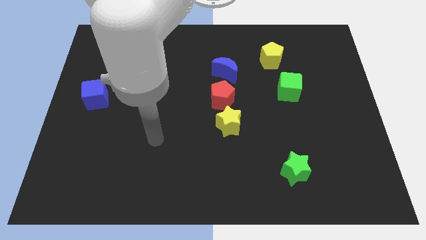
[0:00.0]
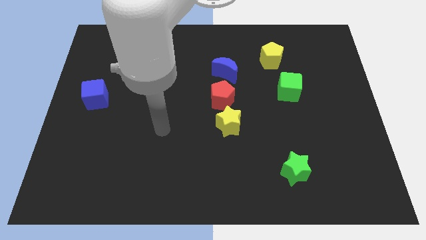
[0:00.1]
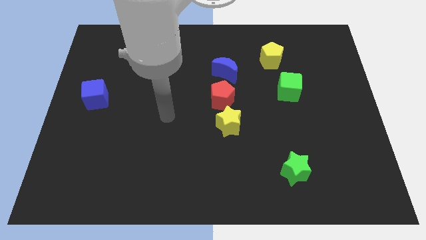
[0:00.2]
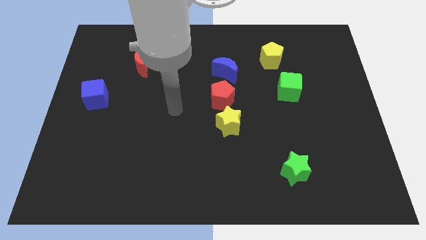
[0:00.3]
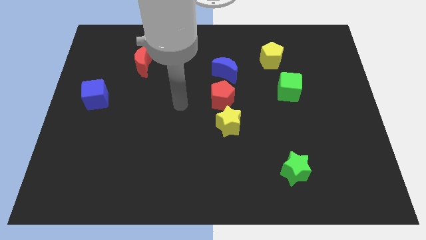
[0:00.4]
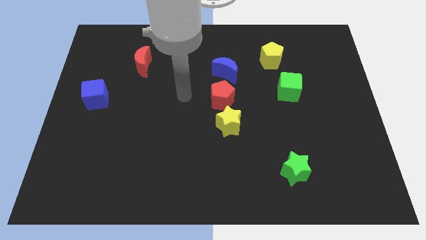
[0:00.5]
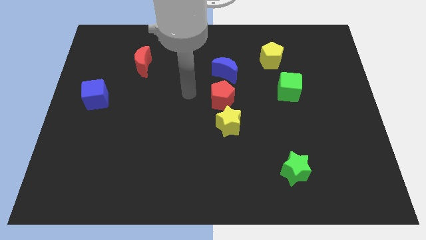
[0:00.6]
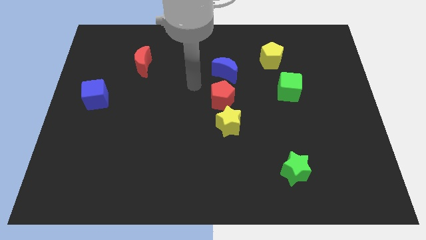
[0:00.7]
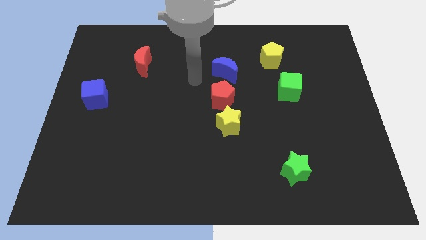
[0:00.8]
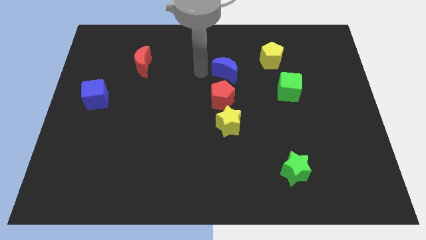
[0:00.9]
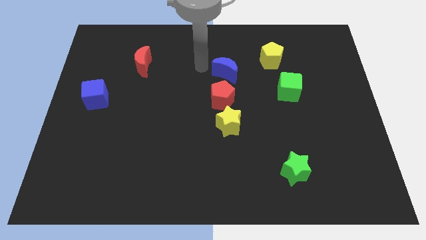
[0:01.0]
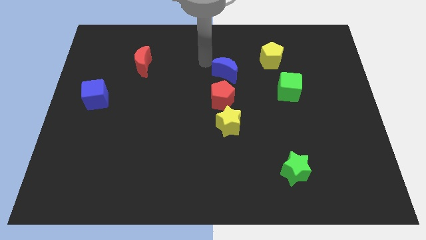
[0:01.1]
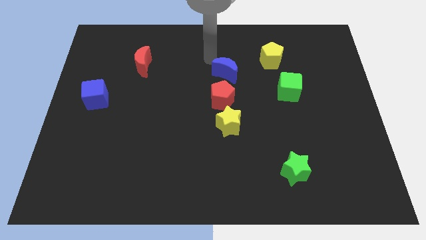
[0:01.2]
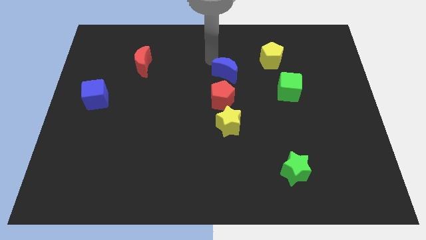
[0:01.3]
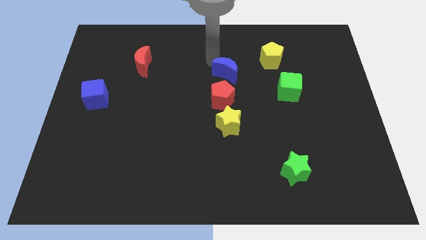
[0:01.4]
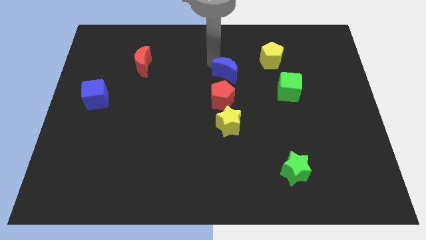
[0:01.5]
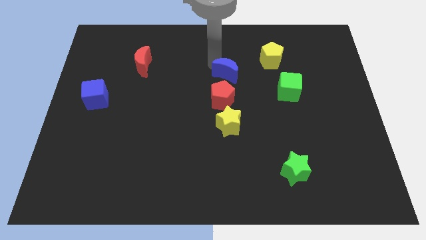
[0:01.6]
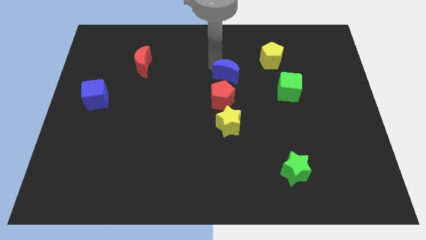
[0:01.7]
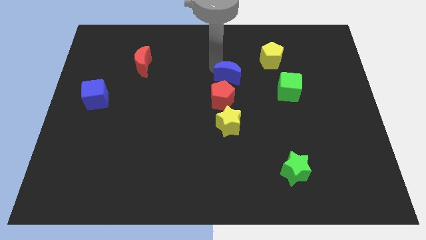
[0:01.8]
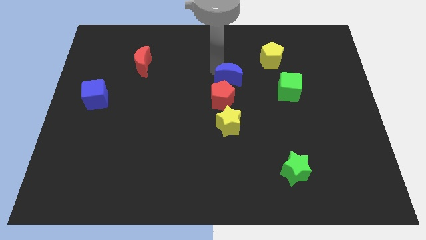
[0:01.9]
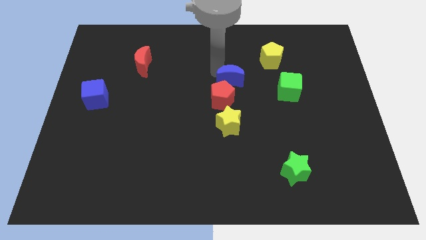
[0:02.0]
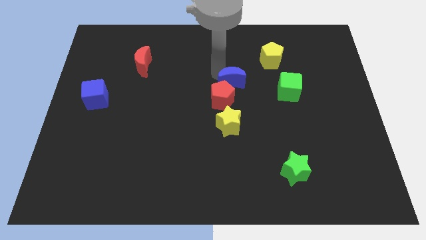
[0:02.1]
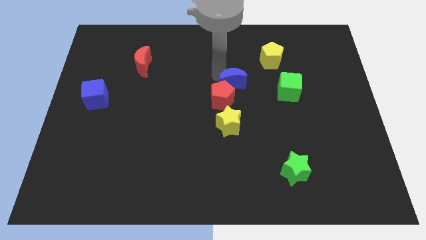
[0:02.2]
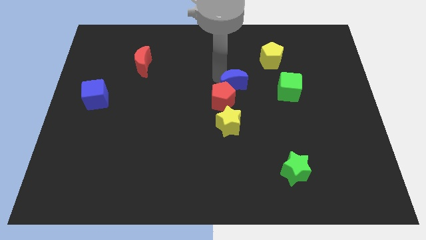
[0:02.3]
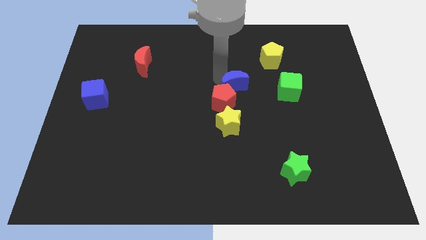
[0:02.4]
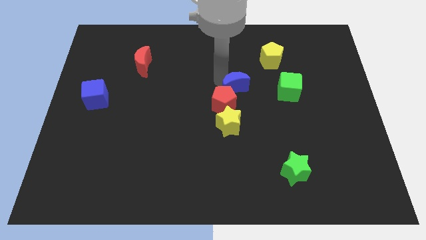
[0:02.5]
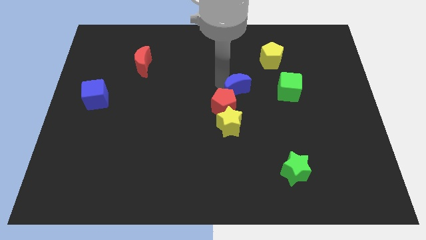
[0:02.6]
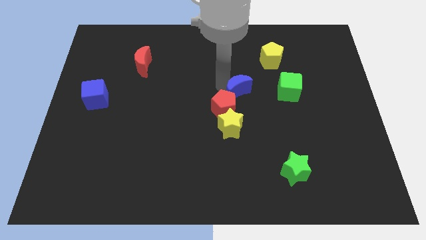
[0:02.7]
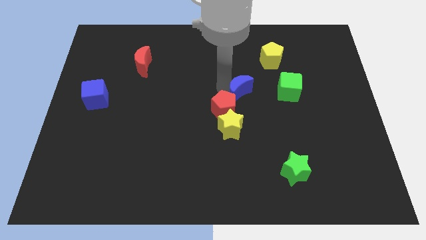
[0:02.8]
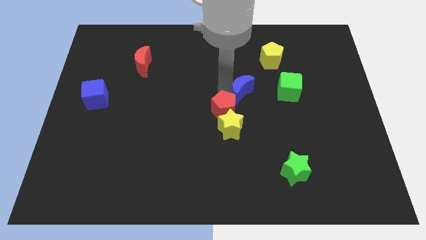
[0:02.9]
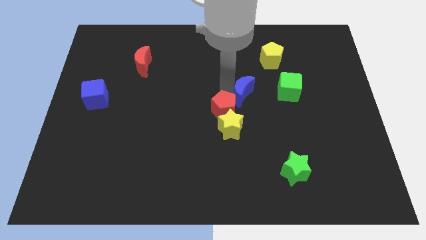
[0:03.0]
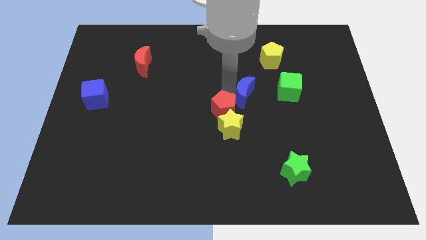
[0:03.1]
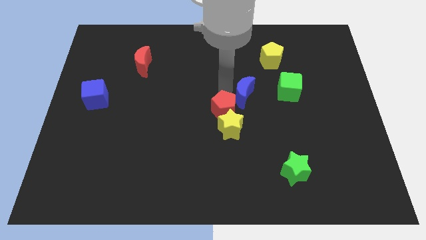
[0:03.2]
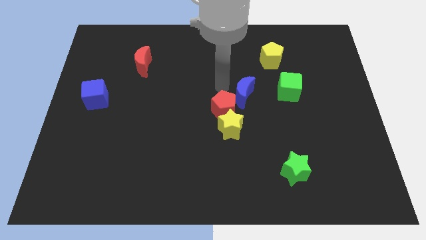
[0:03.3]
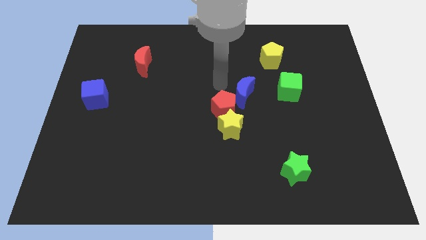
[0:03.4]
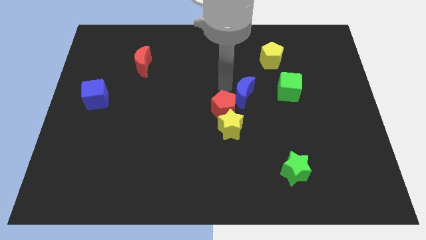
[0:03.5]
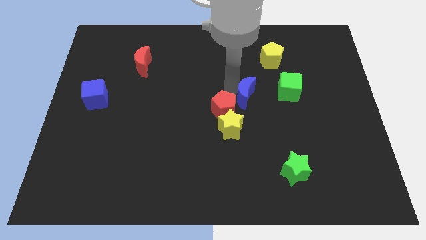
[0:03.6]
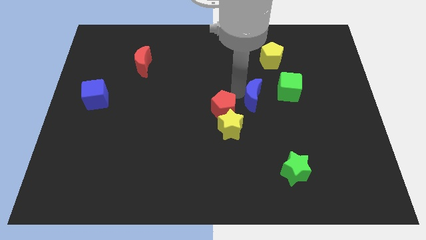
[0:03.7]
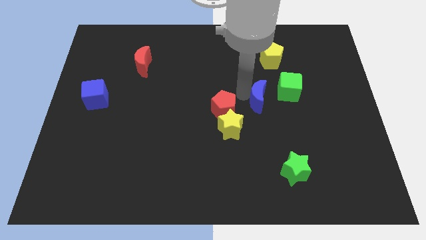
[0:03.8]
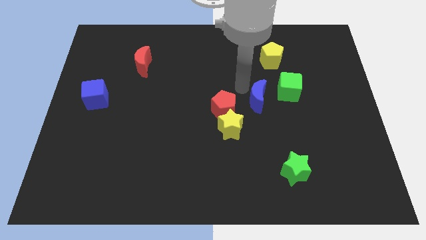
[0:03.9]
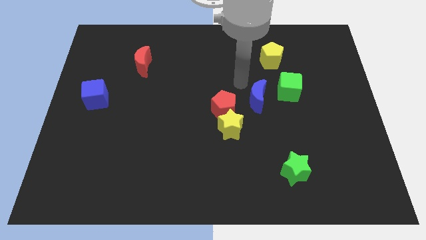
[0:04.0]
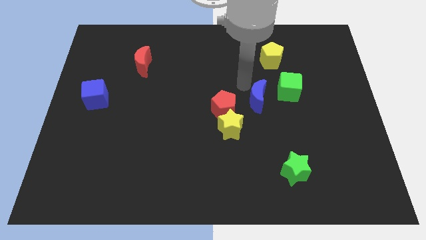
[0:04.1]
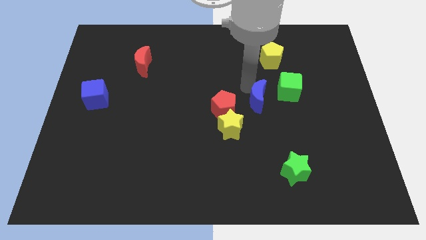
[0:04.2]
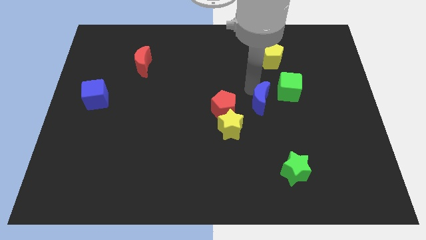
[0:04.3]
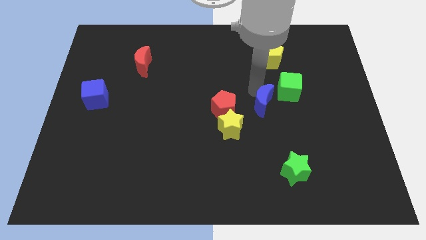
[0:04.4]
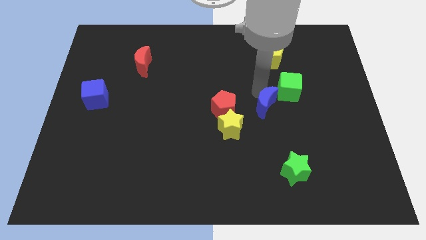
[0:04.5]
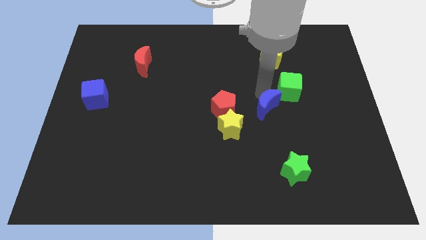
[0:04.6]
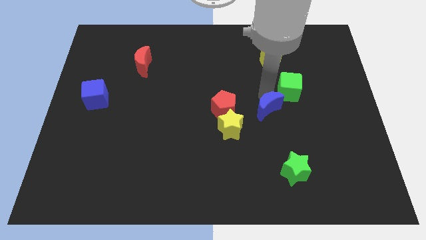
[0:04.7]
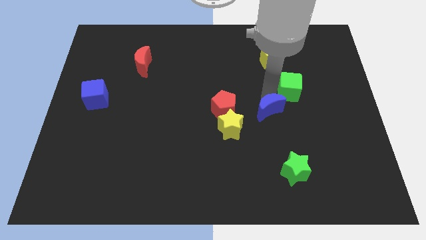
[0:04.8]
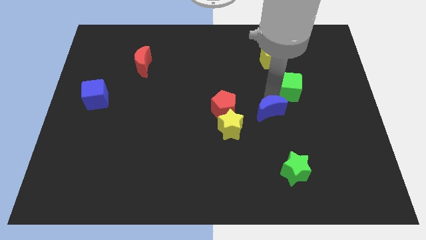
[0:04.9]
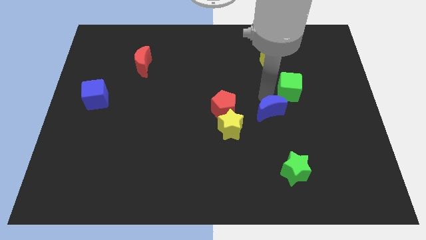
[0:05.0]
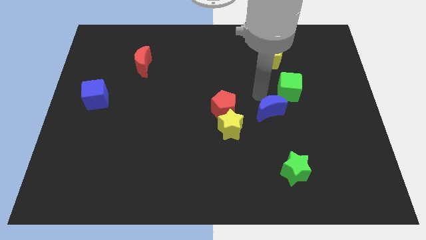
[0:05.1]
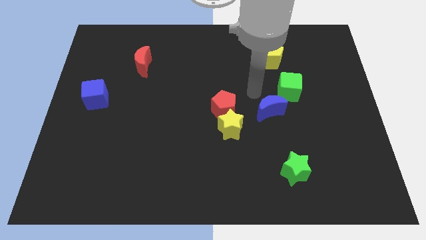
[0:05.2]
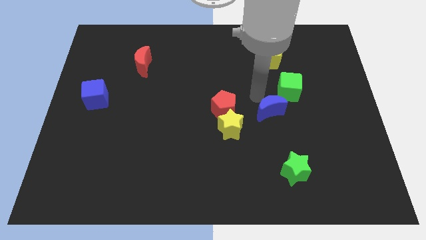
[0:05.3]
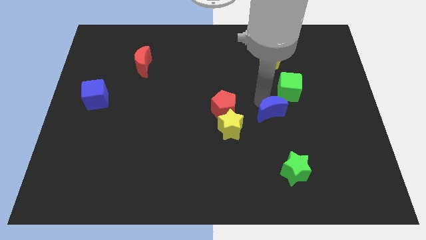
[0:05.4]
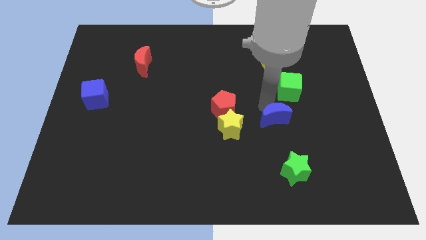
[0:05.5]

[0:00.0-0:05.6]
move the blue moon to the top side of the green star

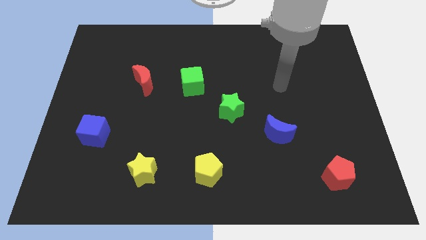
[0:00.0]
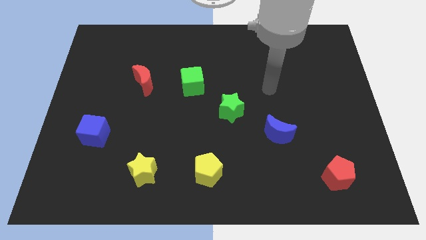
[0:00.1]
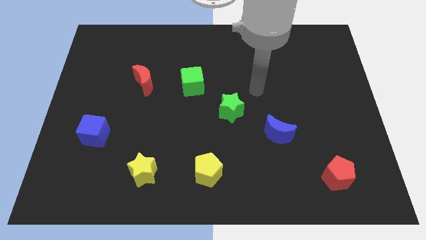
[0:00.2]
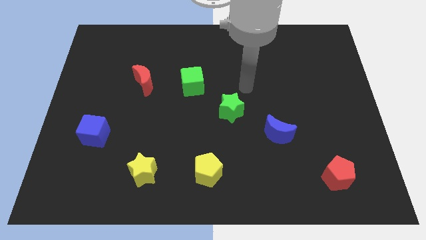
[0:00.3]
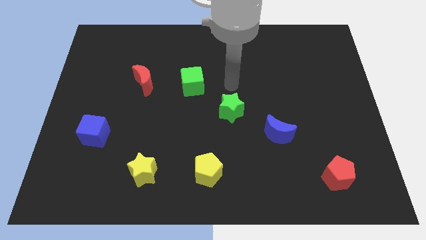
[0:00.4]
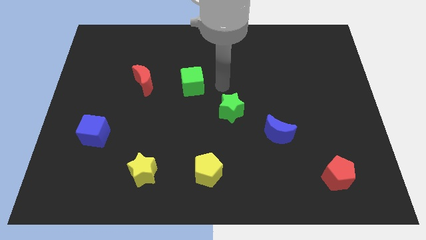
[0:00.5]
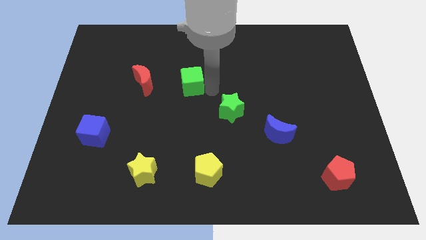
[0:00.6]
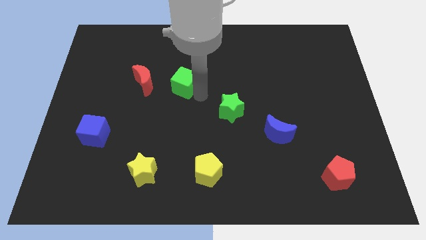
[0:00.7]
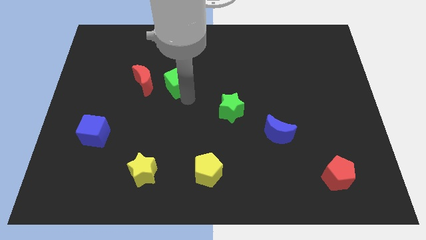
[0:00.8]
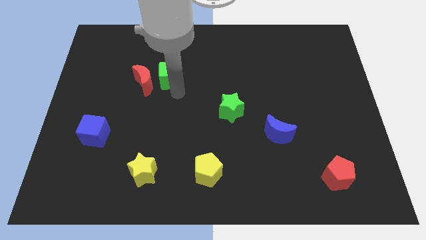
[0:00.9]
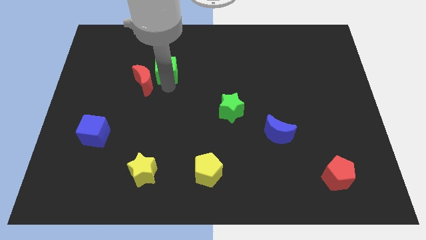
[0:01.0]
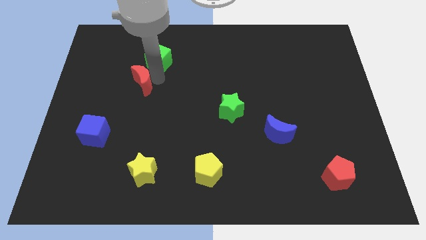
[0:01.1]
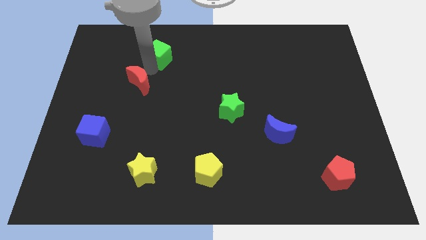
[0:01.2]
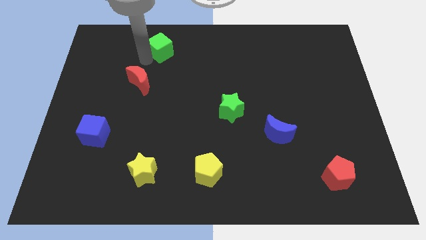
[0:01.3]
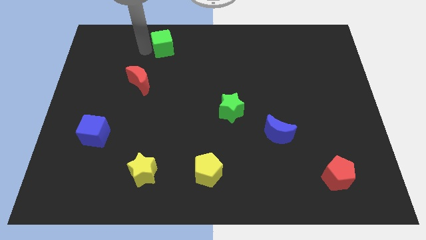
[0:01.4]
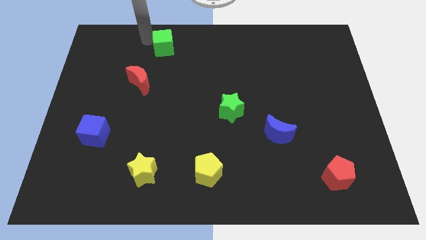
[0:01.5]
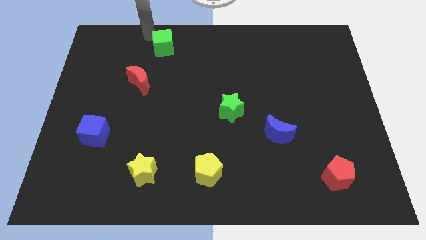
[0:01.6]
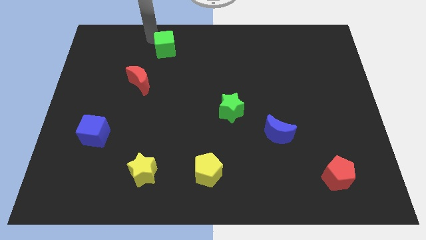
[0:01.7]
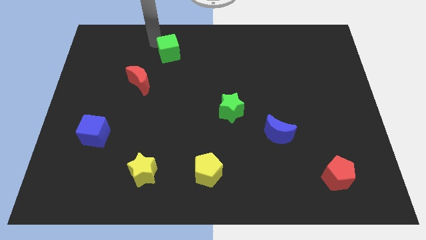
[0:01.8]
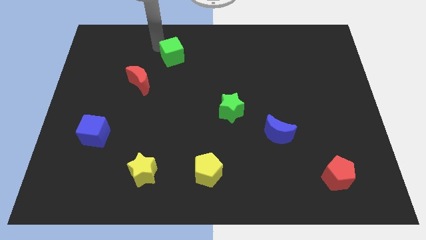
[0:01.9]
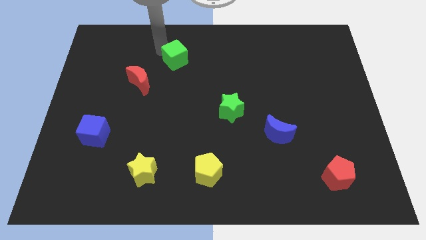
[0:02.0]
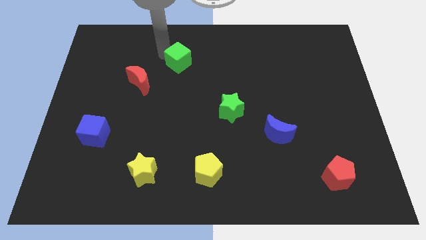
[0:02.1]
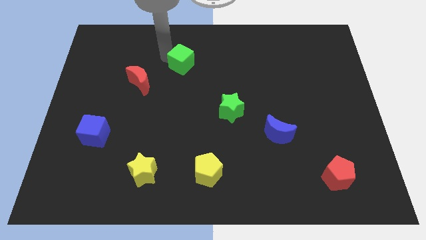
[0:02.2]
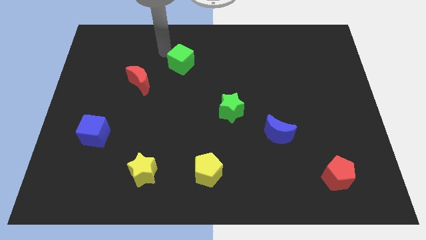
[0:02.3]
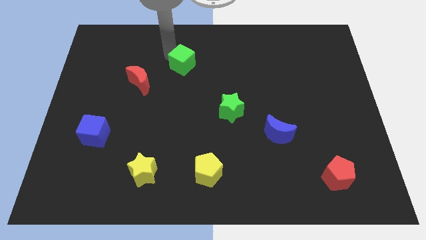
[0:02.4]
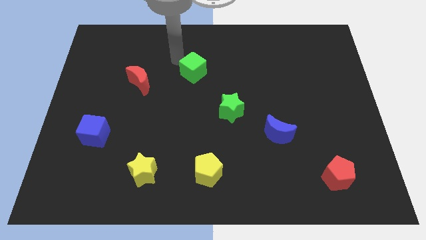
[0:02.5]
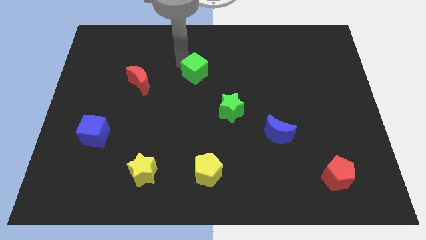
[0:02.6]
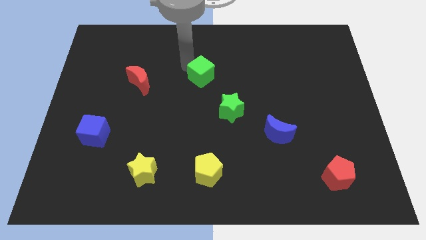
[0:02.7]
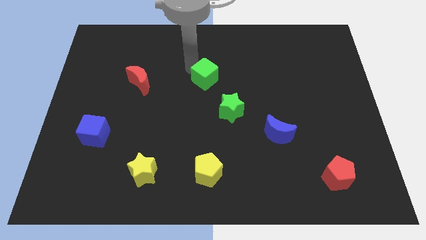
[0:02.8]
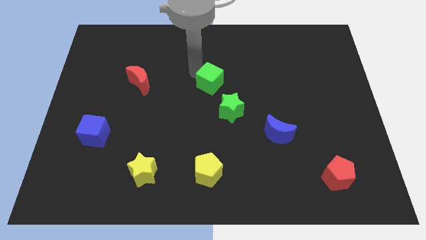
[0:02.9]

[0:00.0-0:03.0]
put the green cube to the top side of the green star
